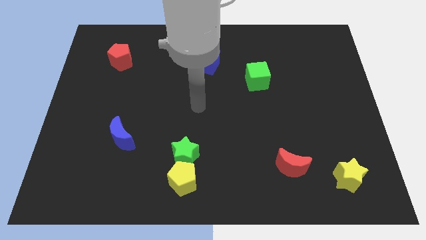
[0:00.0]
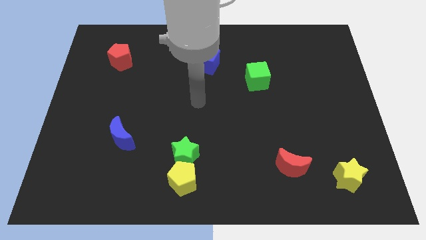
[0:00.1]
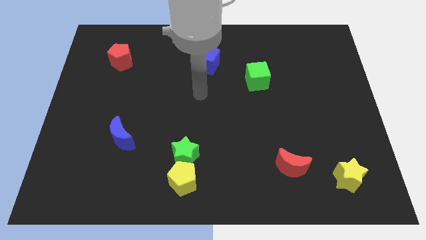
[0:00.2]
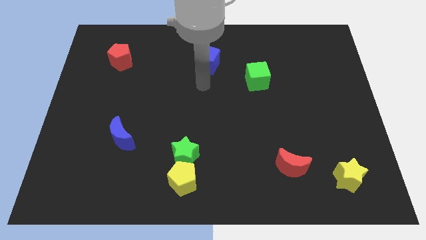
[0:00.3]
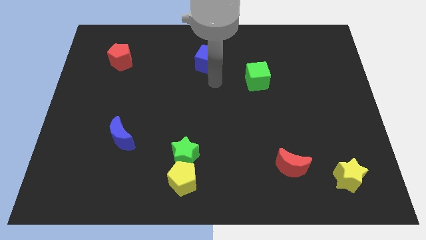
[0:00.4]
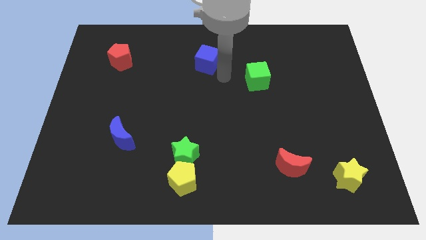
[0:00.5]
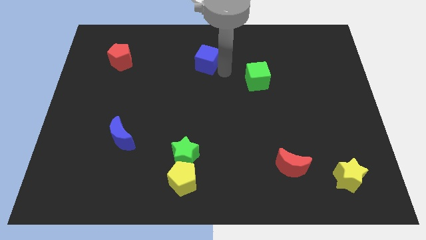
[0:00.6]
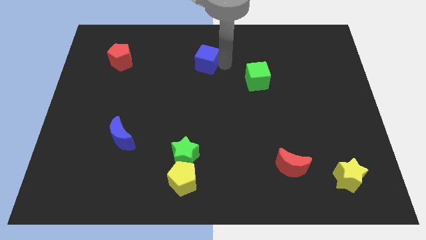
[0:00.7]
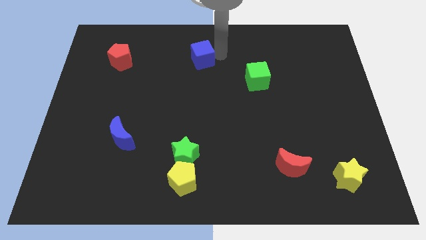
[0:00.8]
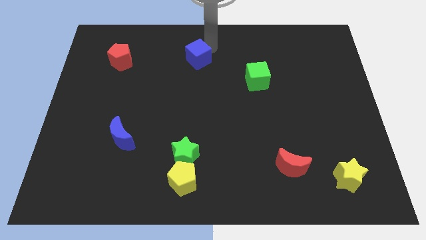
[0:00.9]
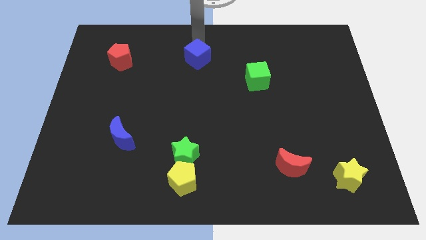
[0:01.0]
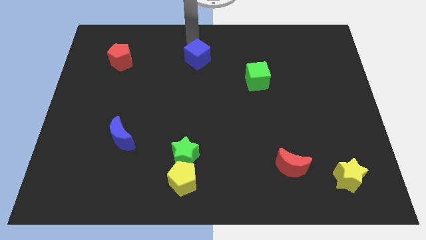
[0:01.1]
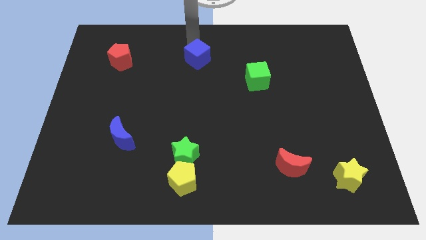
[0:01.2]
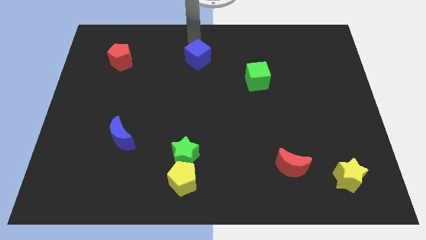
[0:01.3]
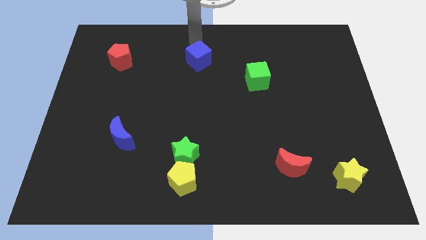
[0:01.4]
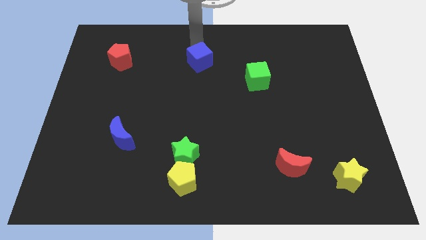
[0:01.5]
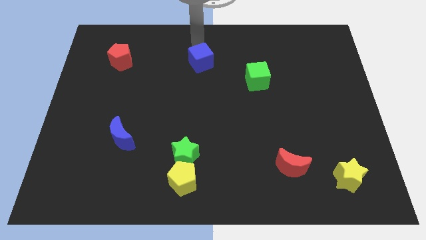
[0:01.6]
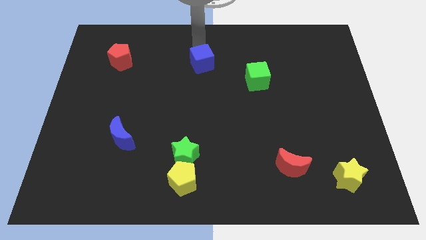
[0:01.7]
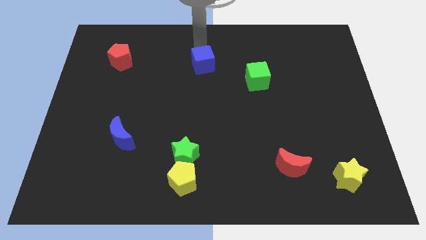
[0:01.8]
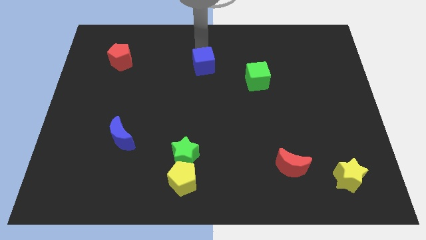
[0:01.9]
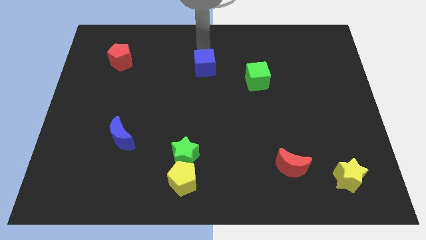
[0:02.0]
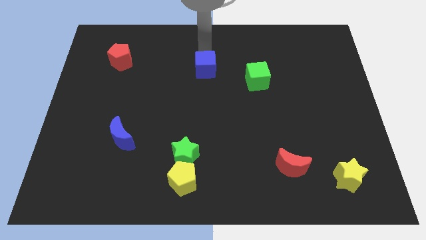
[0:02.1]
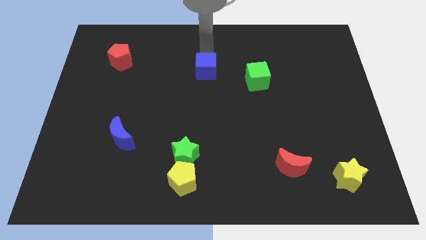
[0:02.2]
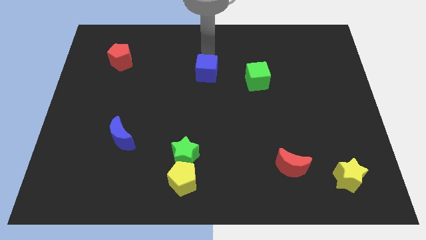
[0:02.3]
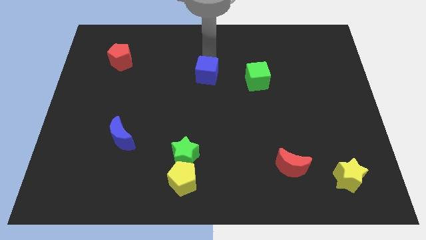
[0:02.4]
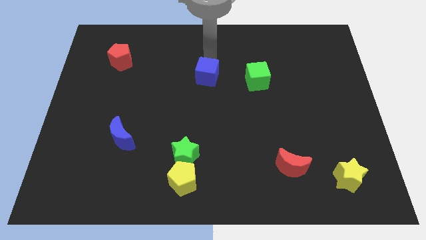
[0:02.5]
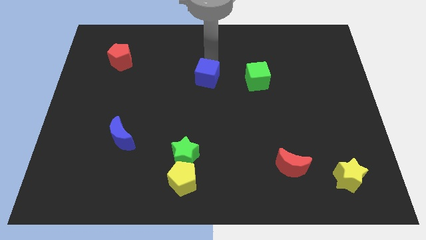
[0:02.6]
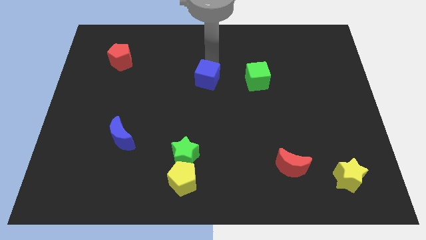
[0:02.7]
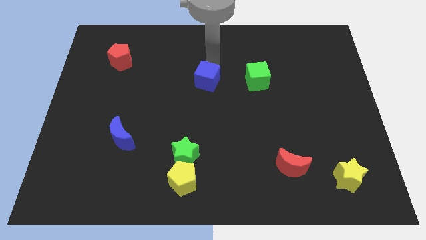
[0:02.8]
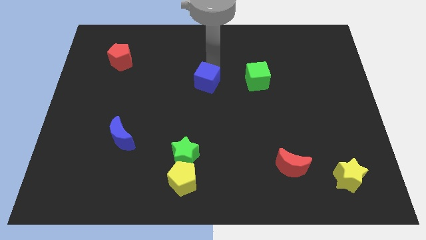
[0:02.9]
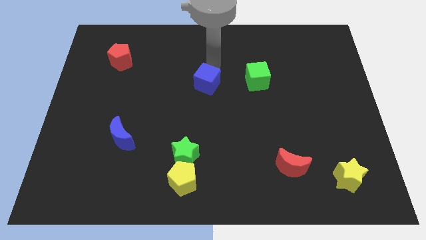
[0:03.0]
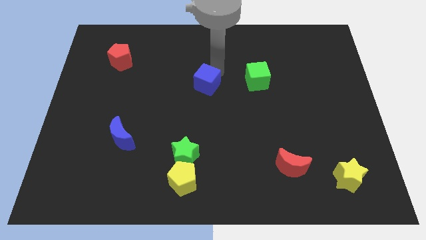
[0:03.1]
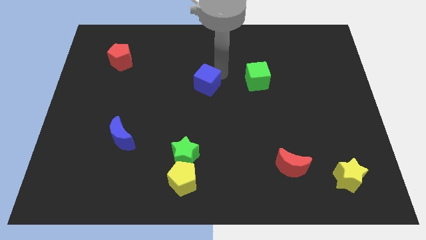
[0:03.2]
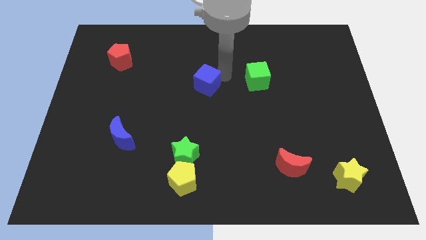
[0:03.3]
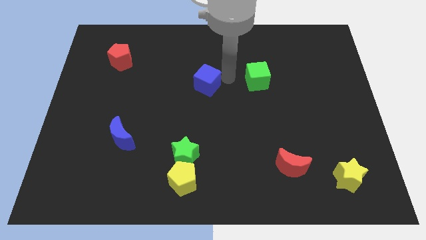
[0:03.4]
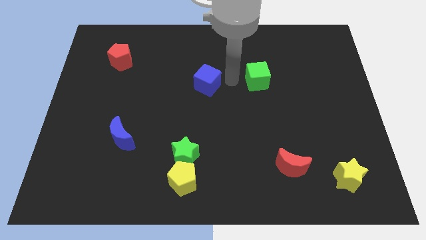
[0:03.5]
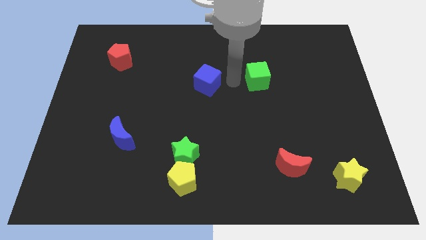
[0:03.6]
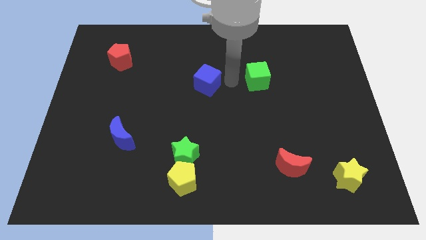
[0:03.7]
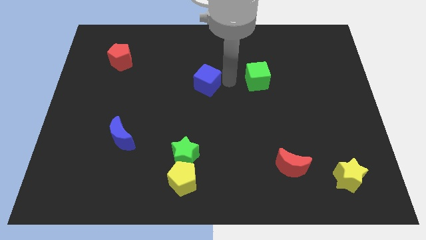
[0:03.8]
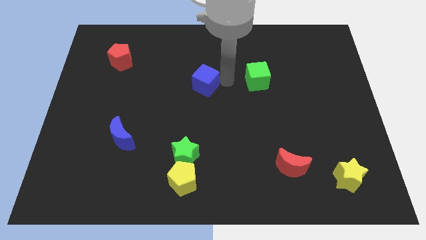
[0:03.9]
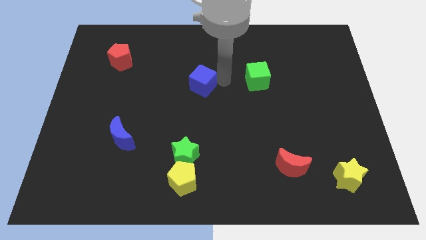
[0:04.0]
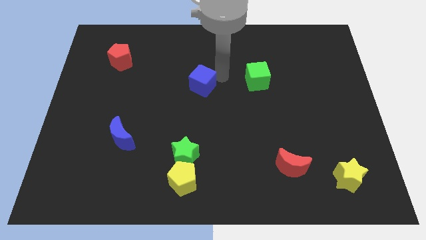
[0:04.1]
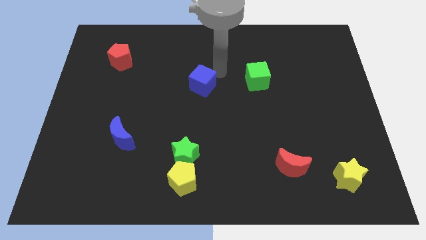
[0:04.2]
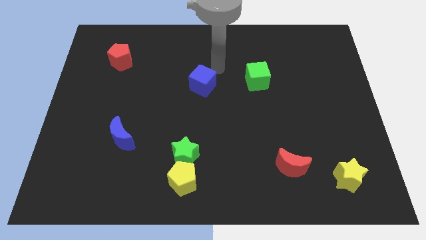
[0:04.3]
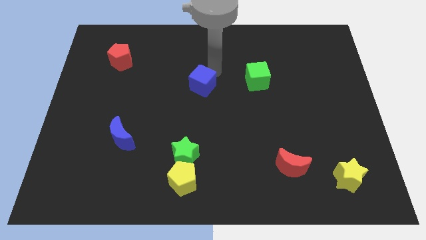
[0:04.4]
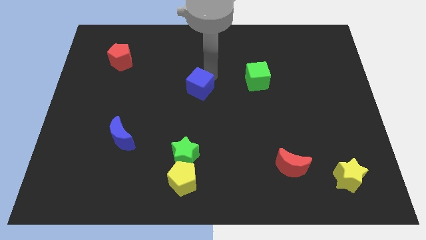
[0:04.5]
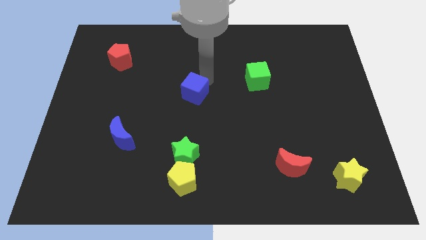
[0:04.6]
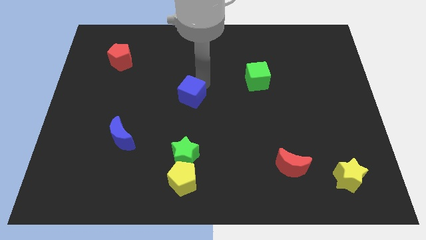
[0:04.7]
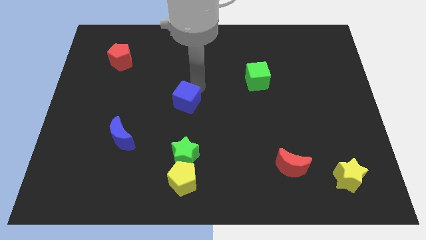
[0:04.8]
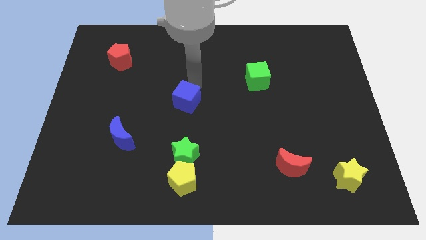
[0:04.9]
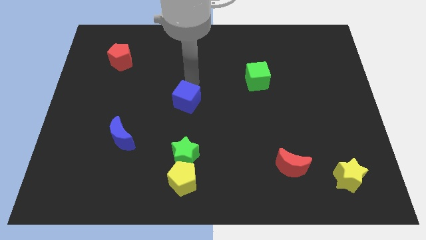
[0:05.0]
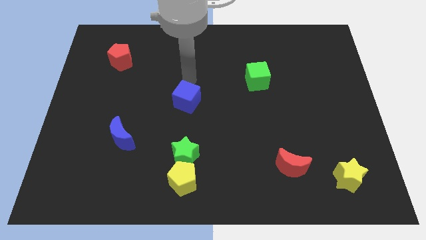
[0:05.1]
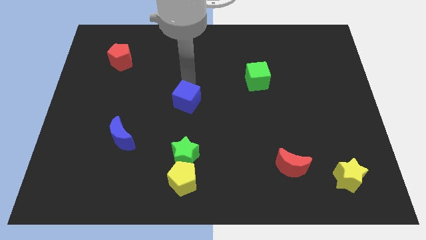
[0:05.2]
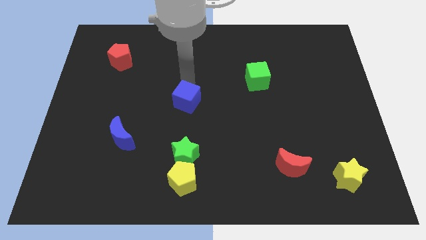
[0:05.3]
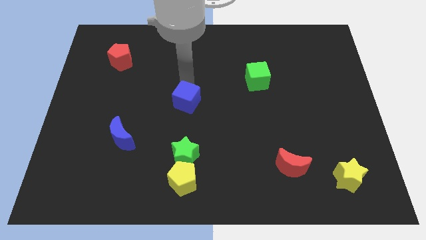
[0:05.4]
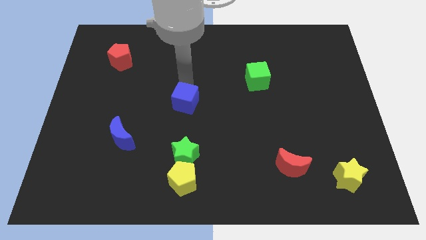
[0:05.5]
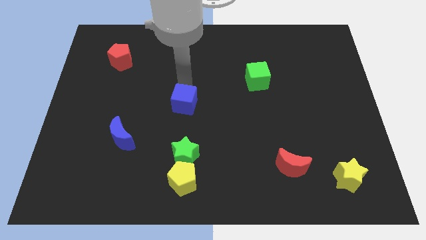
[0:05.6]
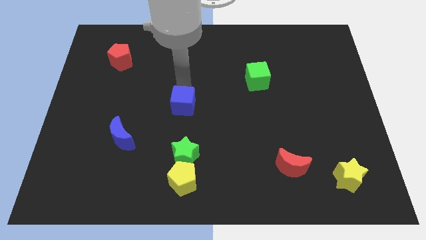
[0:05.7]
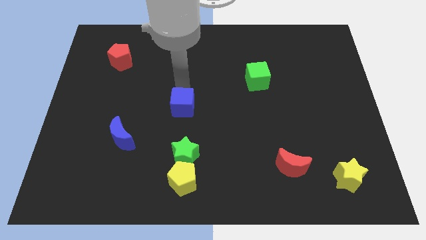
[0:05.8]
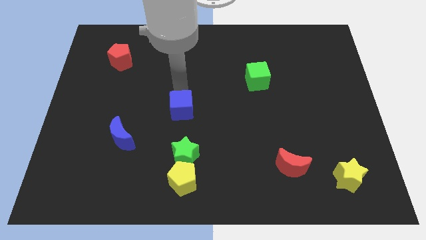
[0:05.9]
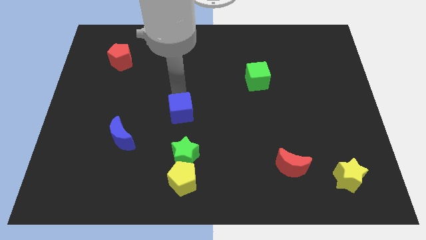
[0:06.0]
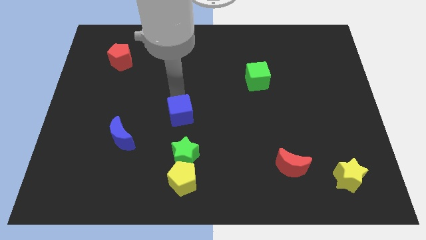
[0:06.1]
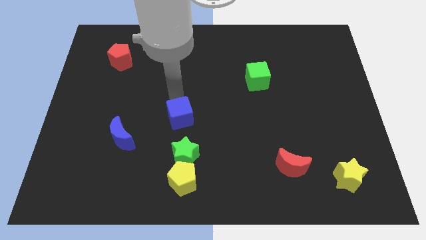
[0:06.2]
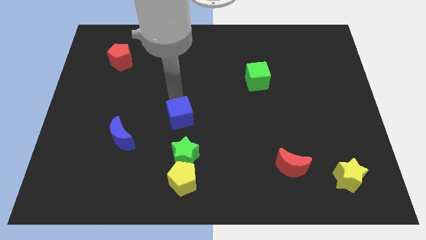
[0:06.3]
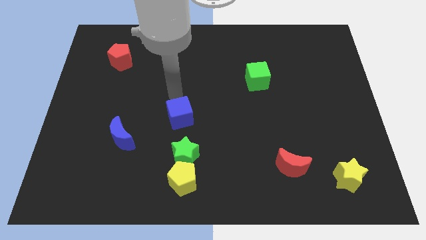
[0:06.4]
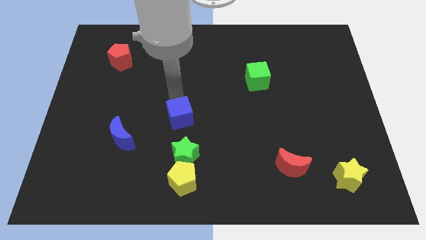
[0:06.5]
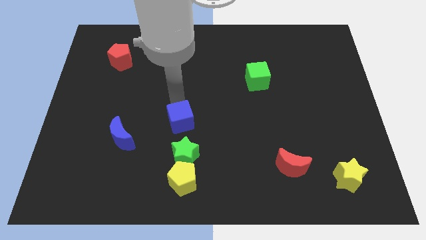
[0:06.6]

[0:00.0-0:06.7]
push the blue cube to the top of the yellow pentagon

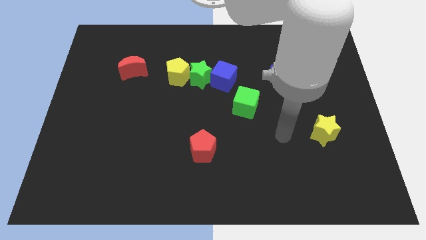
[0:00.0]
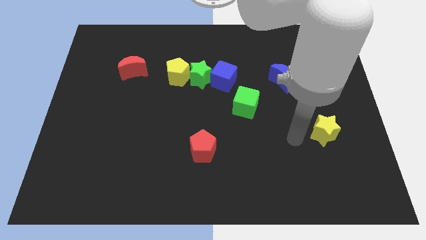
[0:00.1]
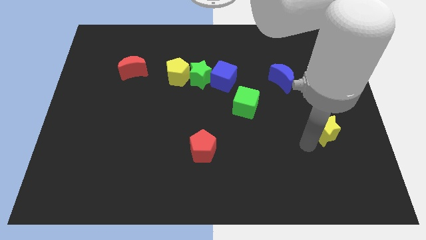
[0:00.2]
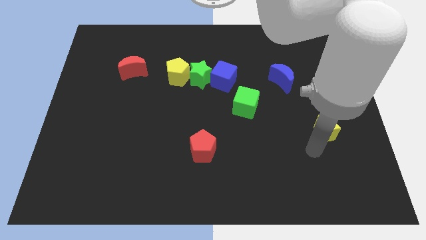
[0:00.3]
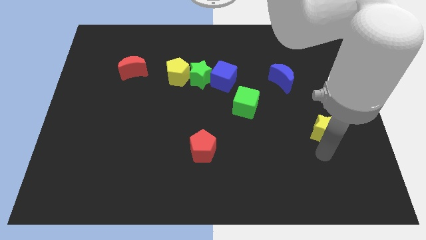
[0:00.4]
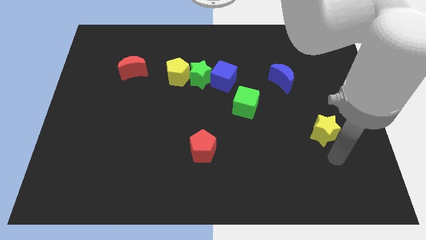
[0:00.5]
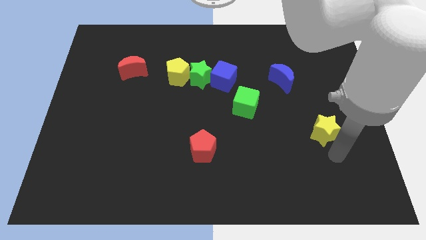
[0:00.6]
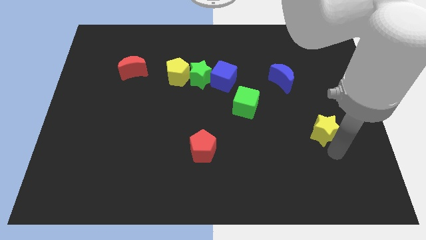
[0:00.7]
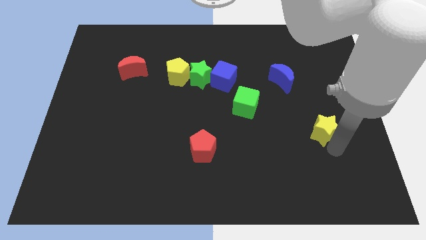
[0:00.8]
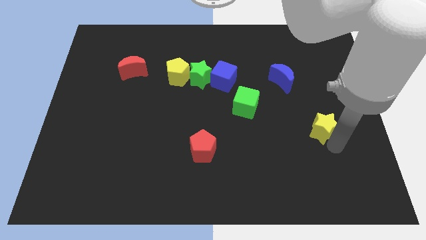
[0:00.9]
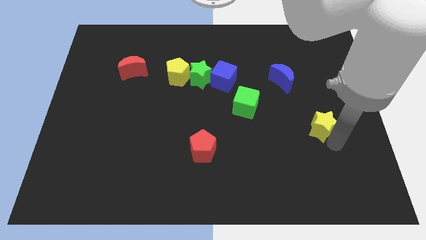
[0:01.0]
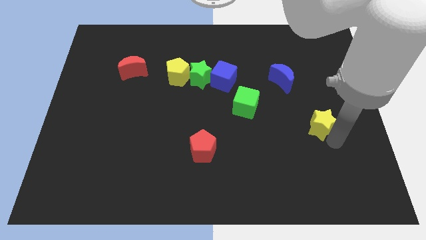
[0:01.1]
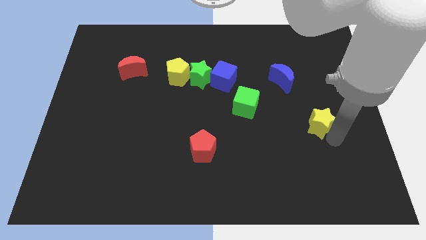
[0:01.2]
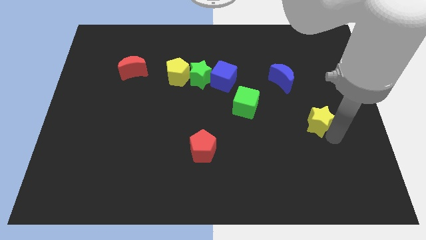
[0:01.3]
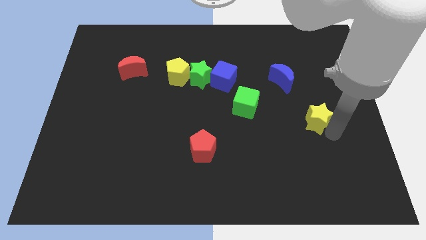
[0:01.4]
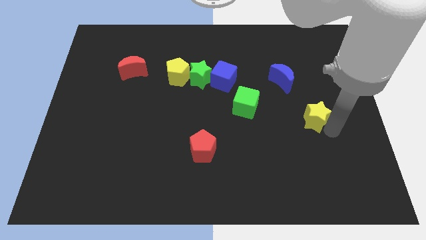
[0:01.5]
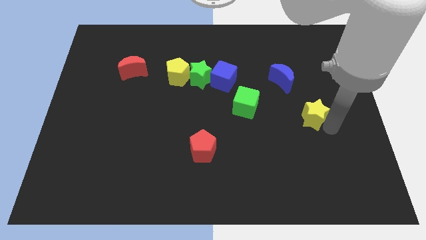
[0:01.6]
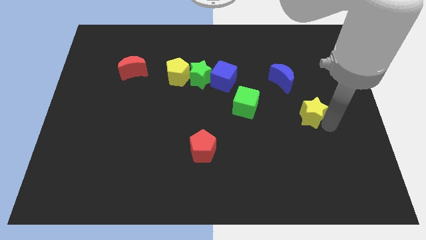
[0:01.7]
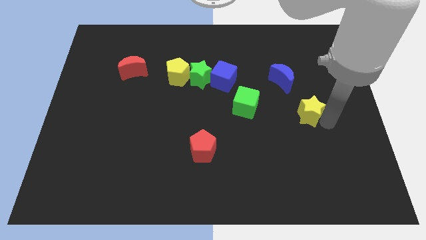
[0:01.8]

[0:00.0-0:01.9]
push the yellow star diagonally down and to the right of the blue moon
